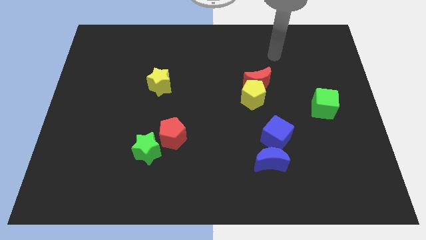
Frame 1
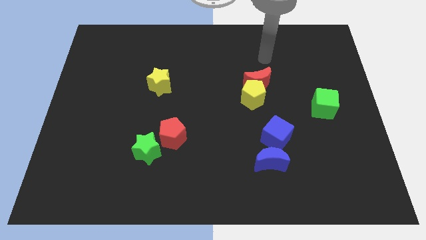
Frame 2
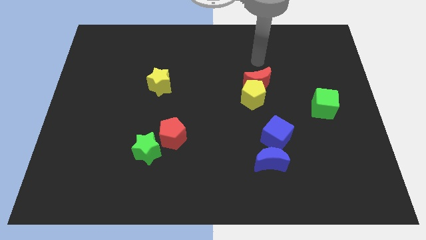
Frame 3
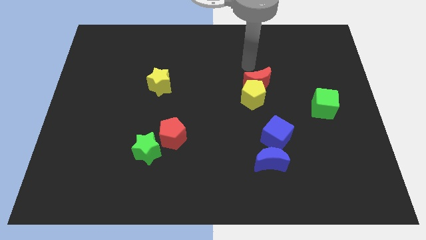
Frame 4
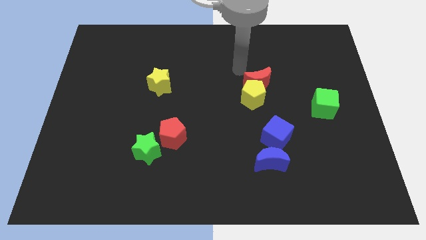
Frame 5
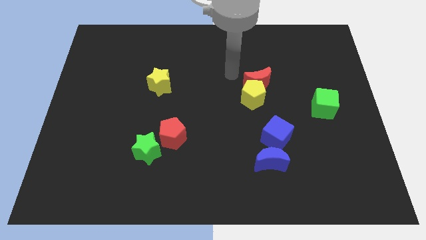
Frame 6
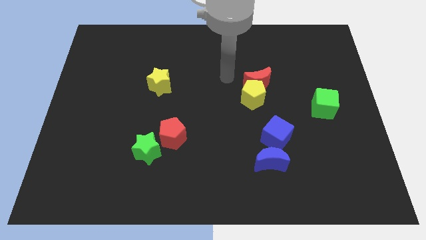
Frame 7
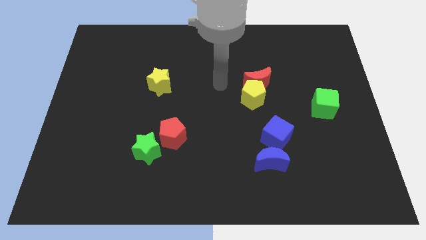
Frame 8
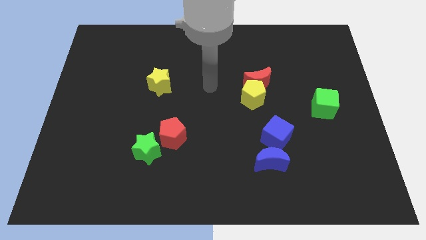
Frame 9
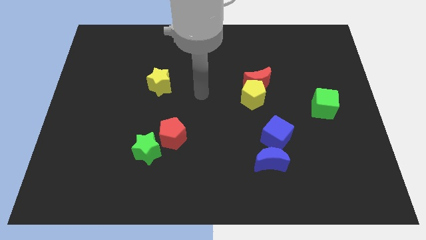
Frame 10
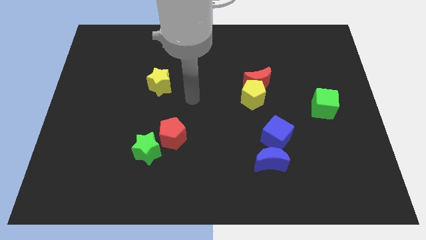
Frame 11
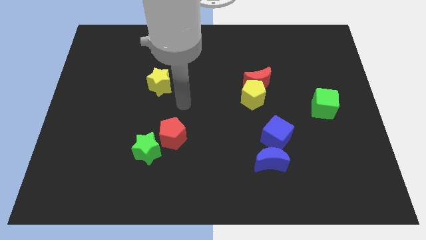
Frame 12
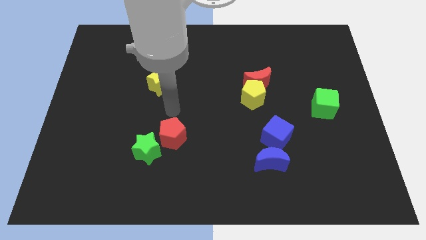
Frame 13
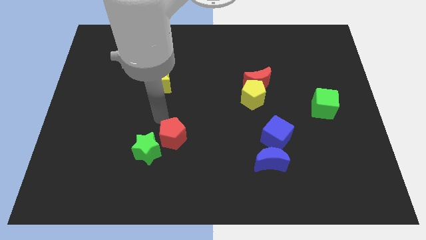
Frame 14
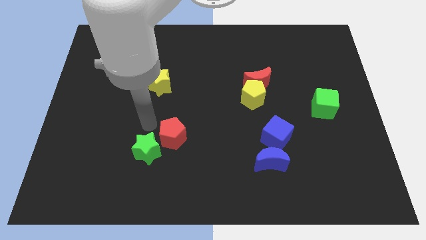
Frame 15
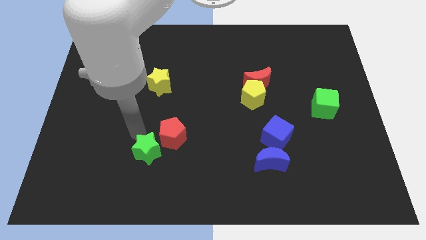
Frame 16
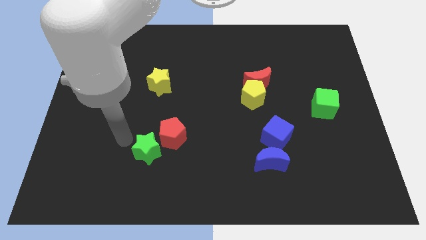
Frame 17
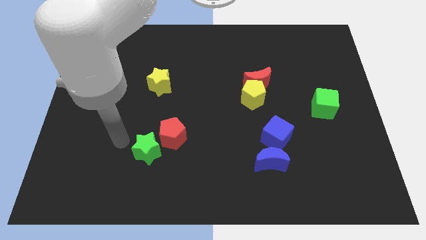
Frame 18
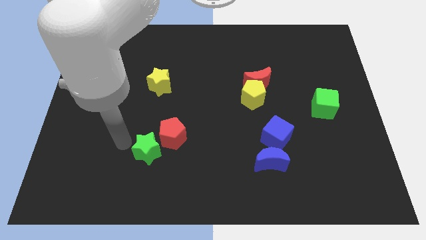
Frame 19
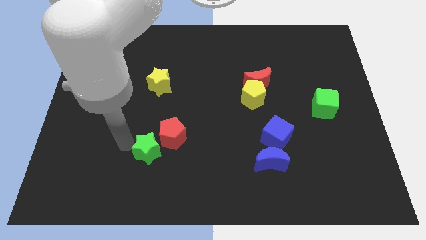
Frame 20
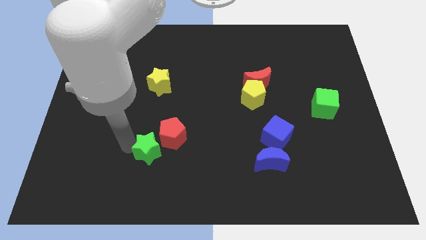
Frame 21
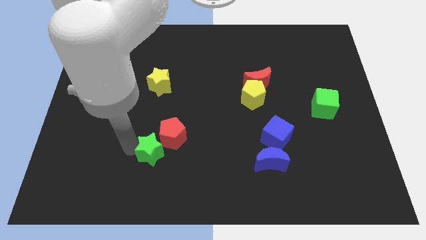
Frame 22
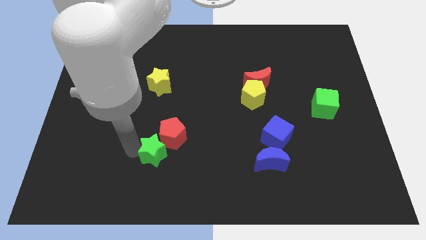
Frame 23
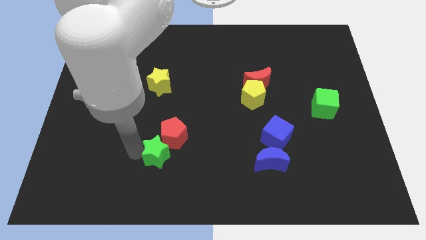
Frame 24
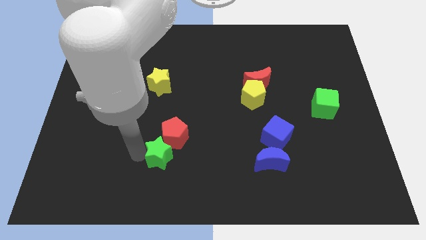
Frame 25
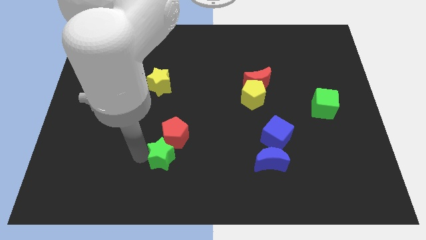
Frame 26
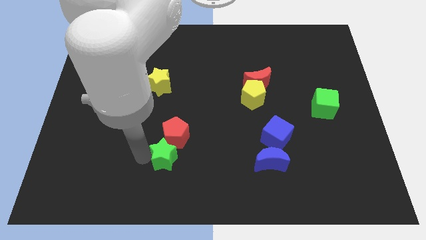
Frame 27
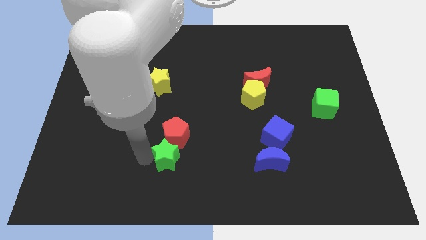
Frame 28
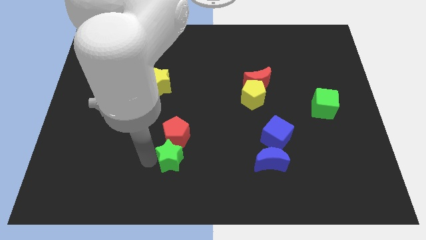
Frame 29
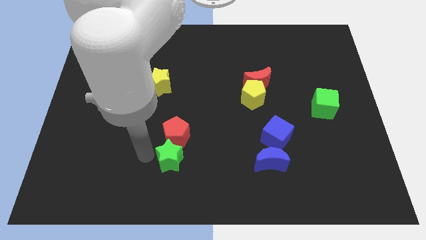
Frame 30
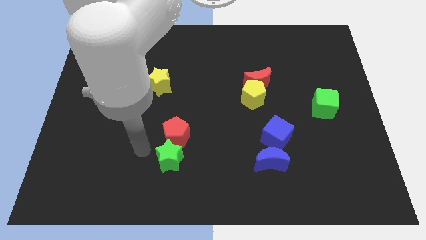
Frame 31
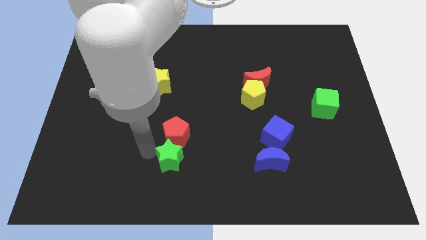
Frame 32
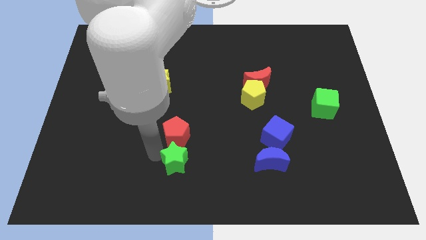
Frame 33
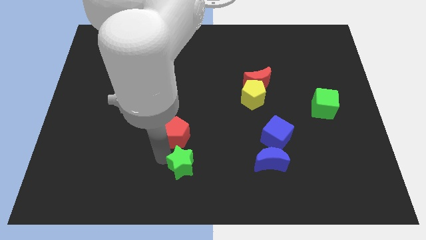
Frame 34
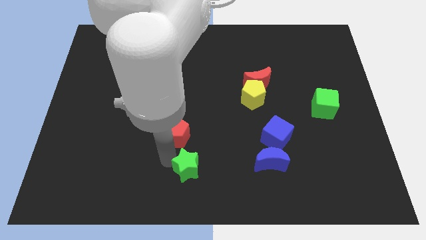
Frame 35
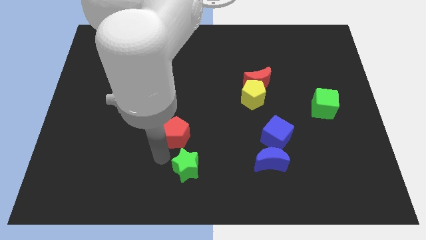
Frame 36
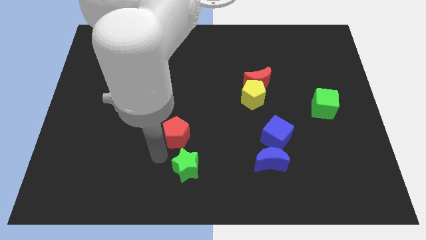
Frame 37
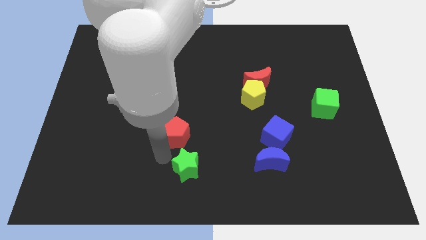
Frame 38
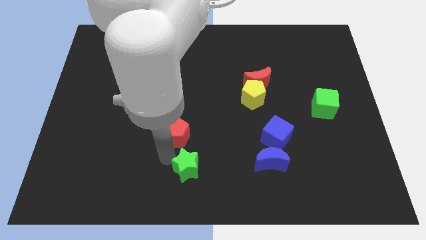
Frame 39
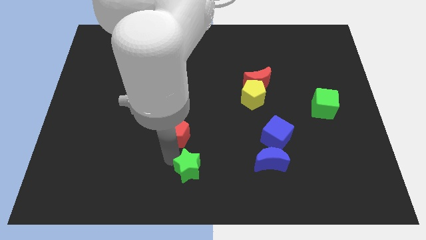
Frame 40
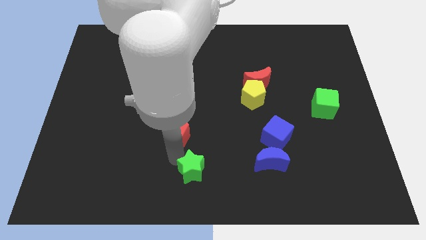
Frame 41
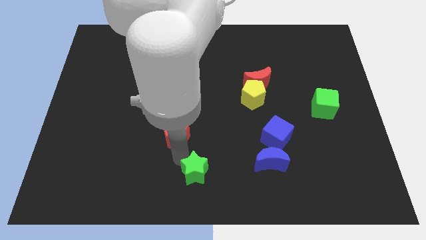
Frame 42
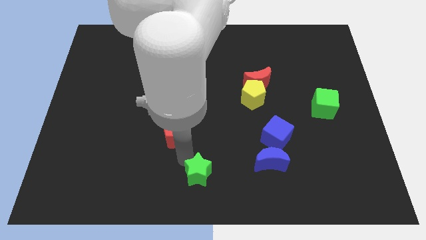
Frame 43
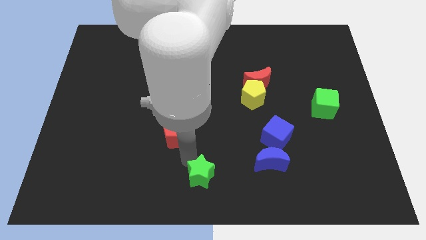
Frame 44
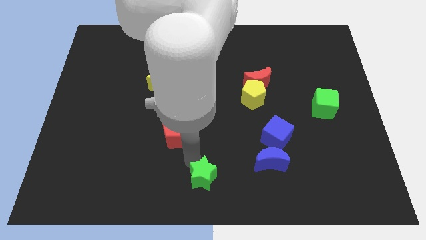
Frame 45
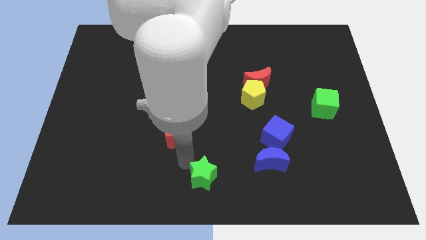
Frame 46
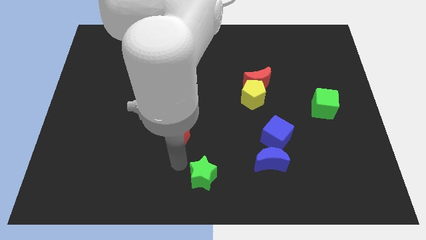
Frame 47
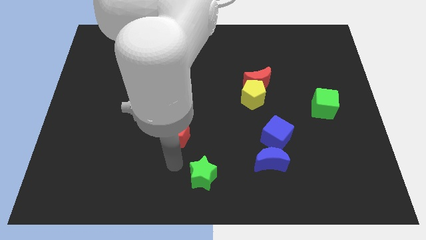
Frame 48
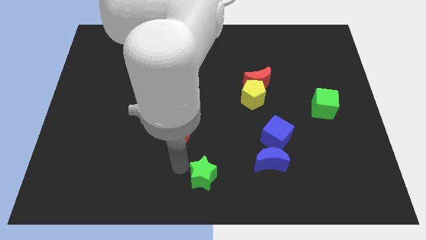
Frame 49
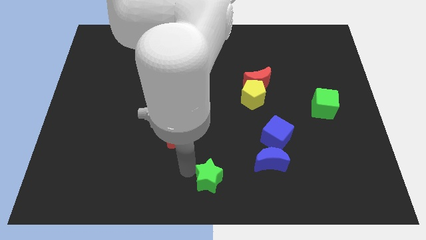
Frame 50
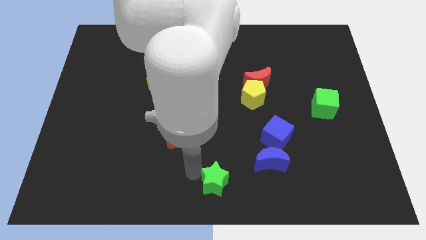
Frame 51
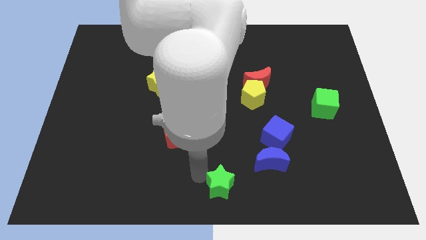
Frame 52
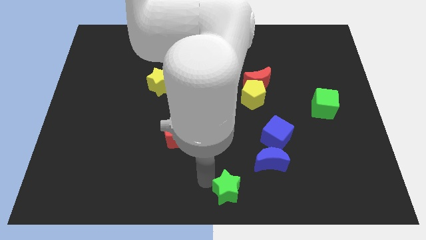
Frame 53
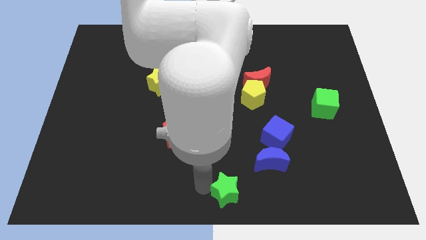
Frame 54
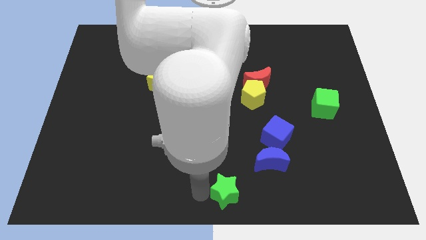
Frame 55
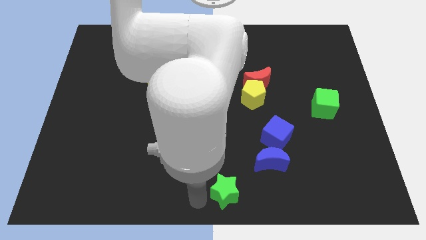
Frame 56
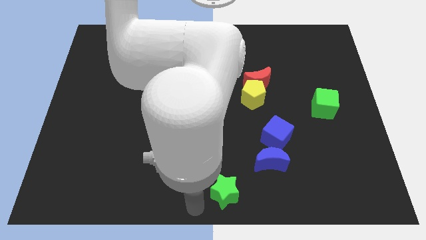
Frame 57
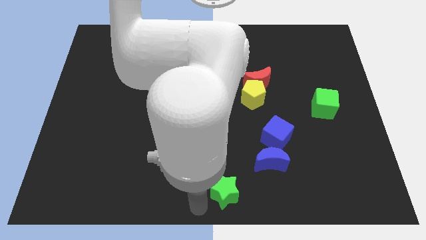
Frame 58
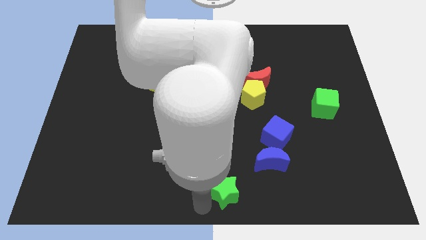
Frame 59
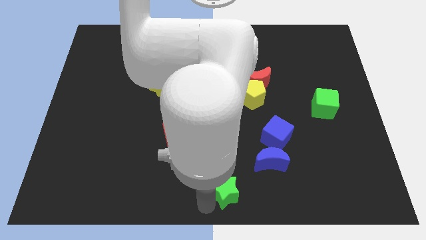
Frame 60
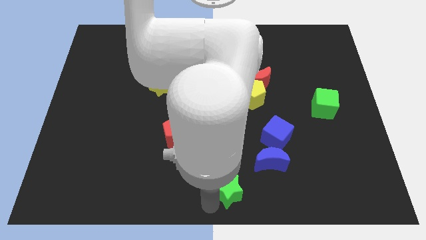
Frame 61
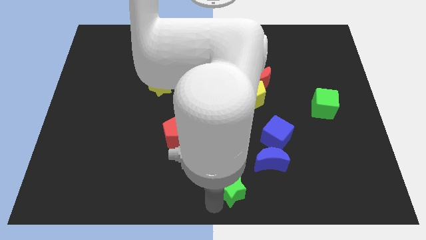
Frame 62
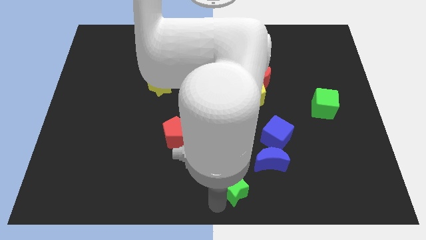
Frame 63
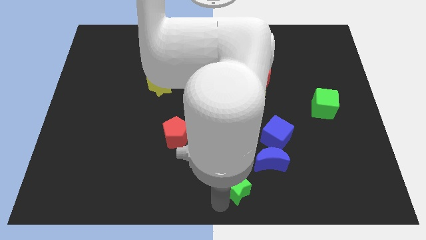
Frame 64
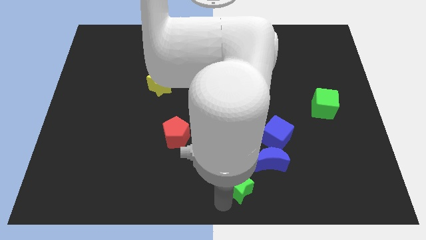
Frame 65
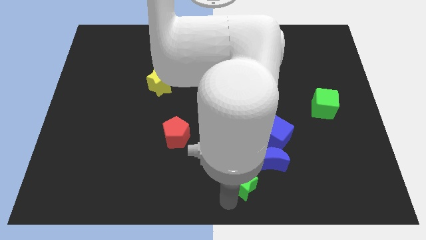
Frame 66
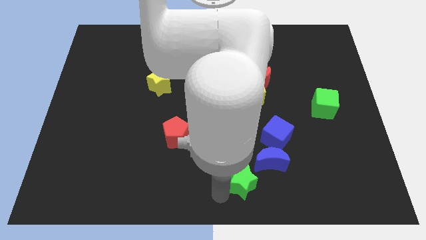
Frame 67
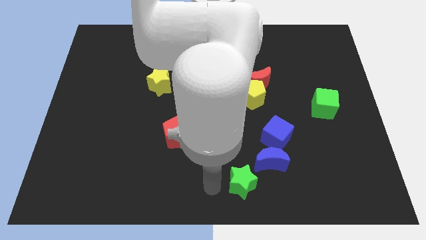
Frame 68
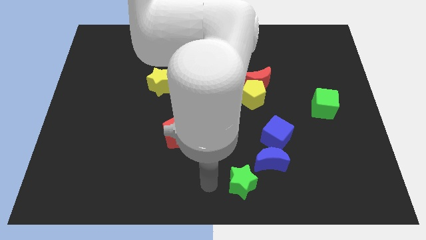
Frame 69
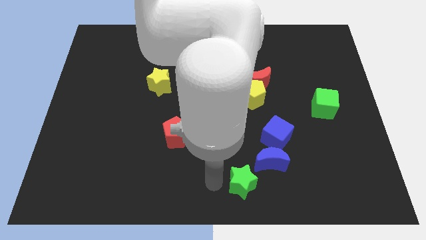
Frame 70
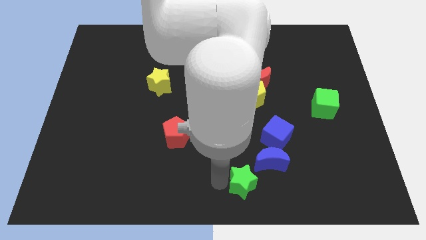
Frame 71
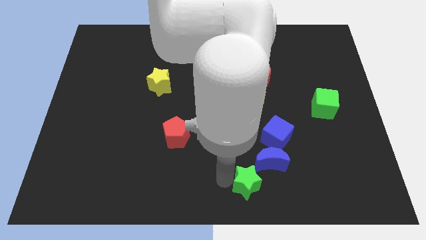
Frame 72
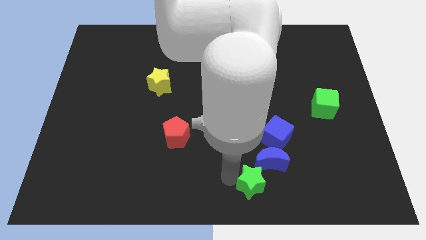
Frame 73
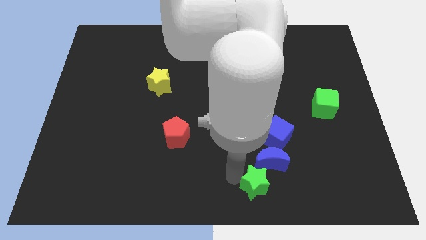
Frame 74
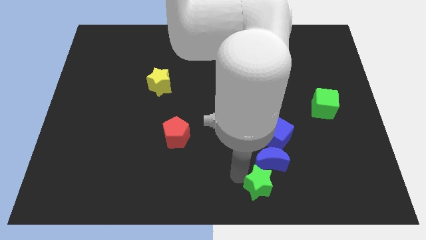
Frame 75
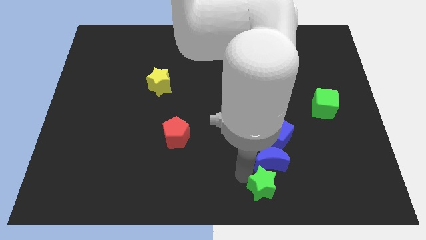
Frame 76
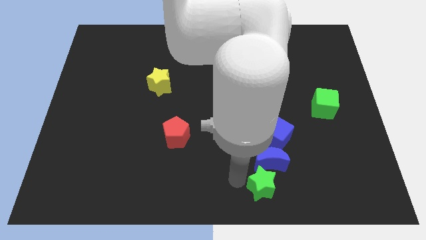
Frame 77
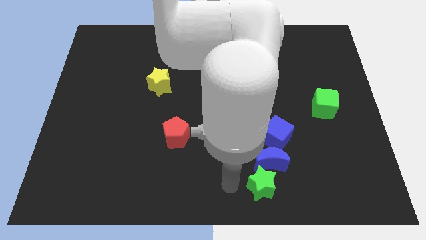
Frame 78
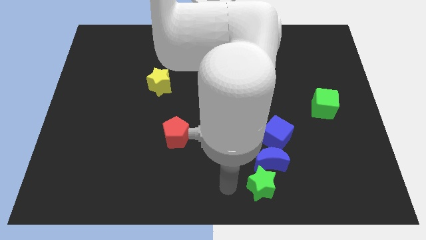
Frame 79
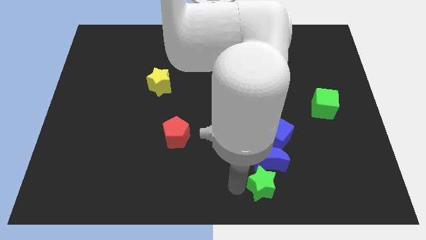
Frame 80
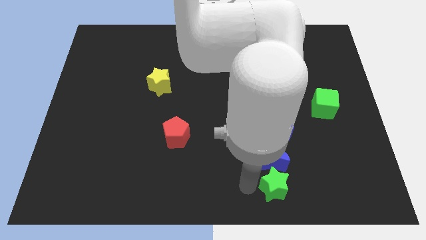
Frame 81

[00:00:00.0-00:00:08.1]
slide the green star to the bottom right side of the blue moon
